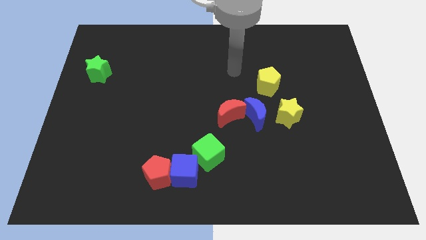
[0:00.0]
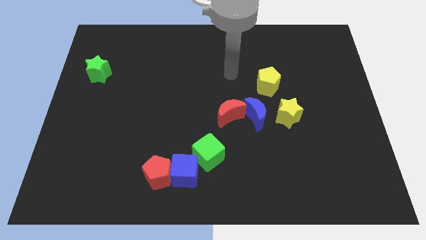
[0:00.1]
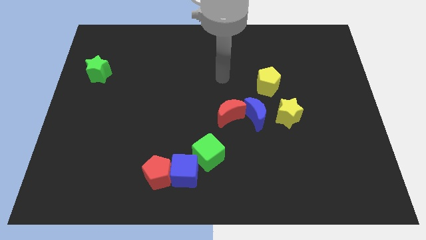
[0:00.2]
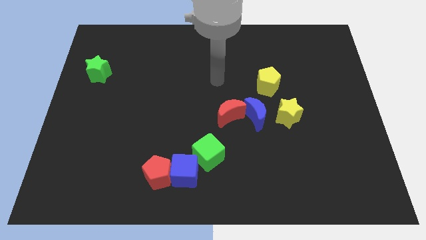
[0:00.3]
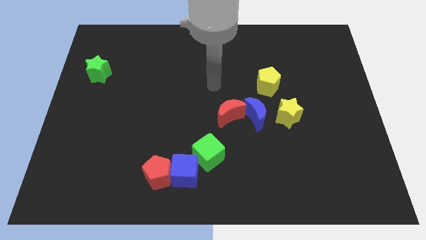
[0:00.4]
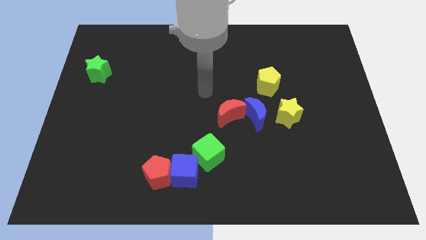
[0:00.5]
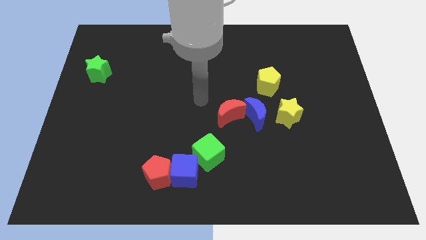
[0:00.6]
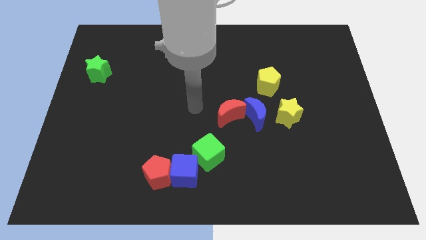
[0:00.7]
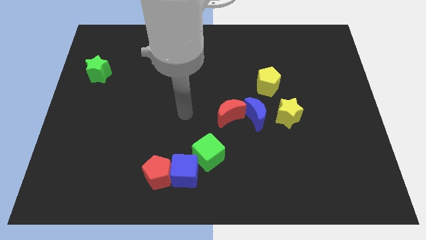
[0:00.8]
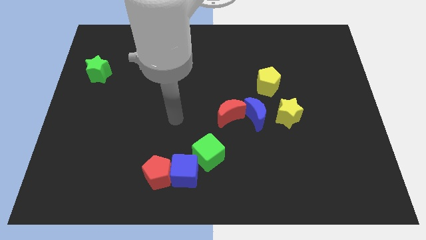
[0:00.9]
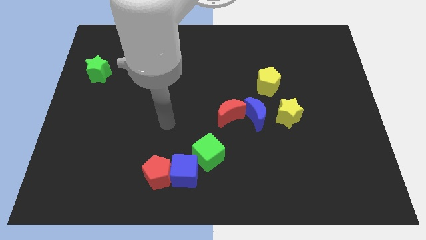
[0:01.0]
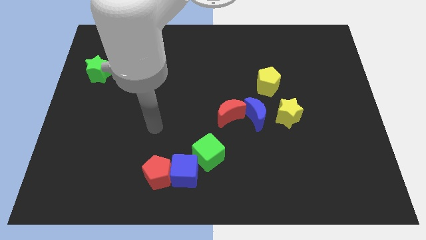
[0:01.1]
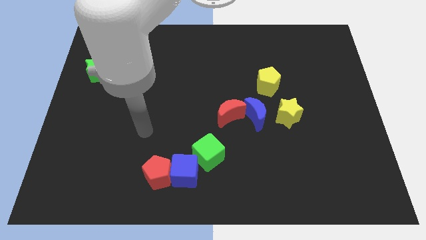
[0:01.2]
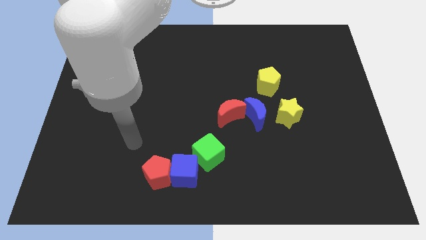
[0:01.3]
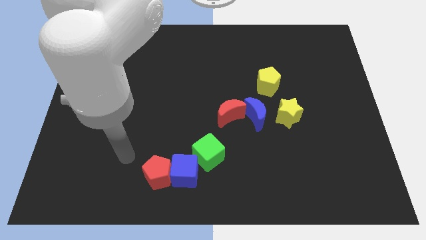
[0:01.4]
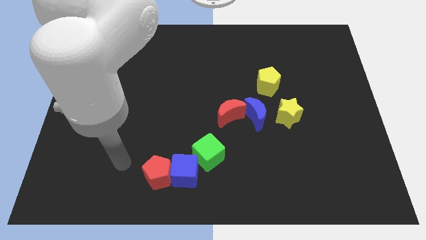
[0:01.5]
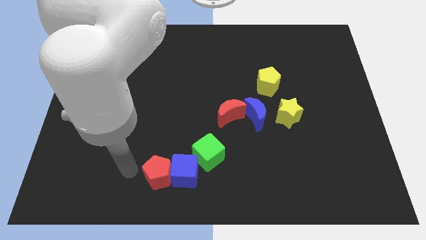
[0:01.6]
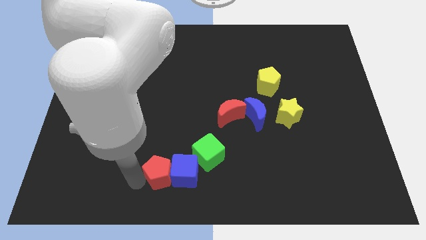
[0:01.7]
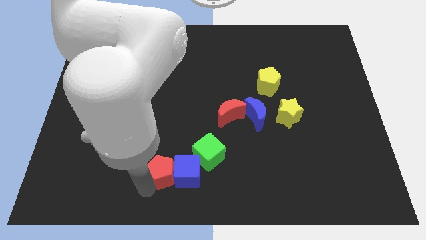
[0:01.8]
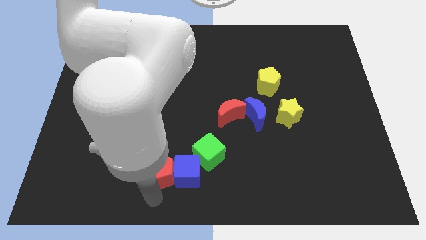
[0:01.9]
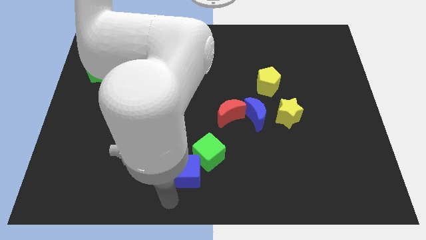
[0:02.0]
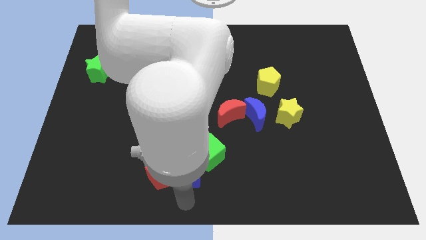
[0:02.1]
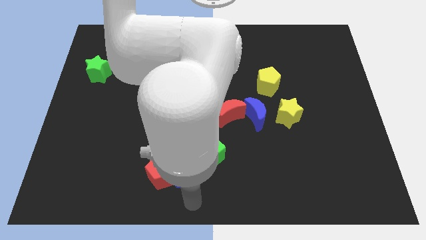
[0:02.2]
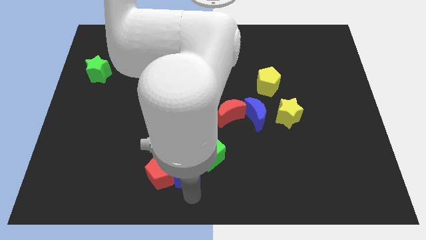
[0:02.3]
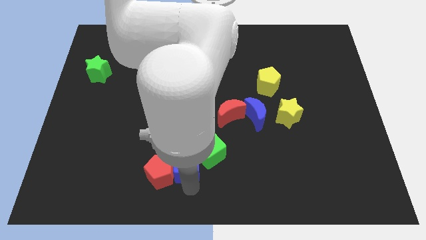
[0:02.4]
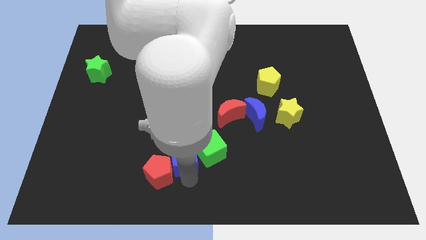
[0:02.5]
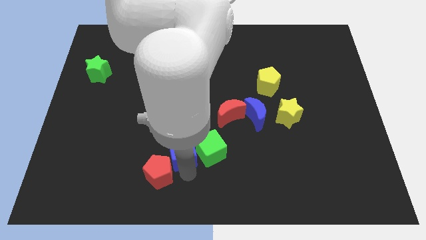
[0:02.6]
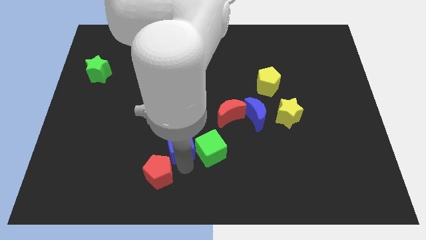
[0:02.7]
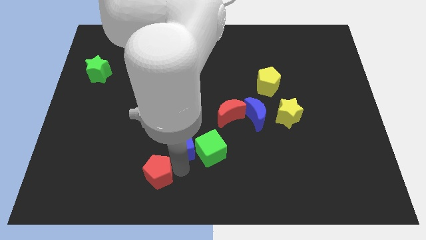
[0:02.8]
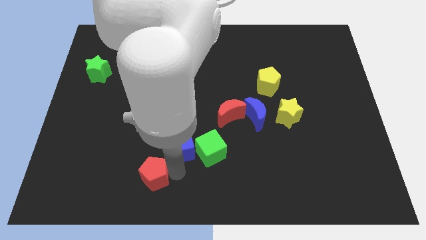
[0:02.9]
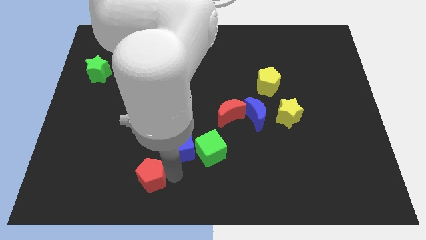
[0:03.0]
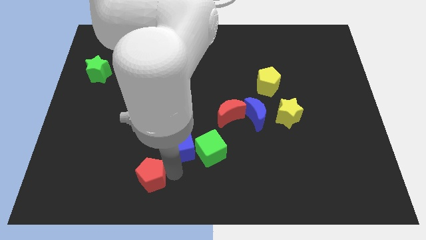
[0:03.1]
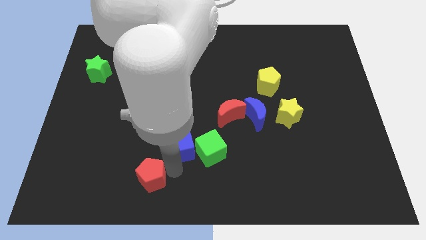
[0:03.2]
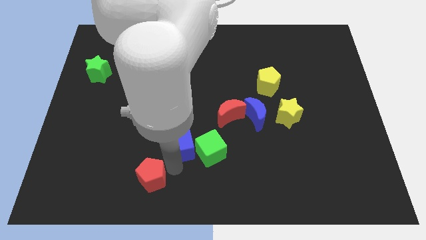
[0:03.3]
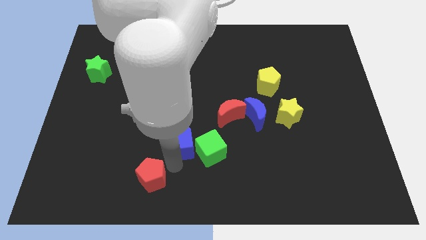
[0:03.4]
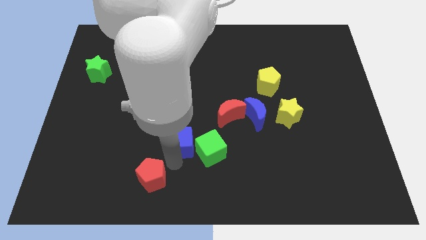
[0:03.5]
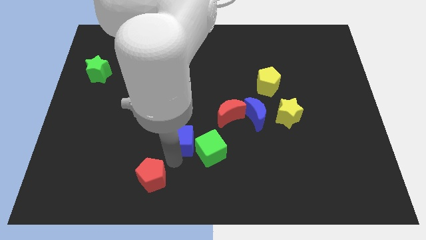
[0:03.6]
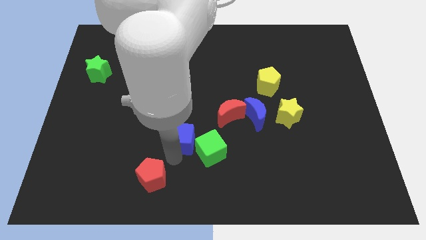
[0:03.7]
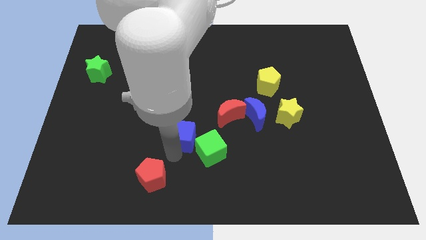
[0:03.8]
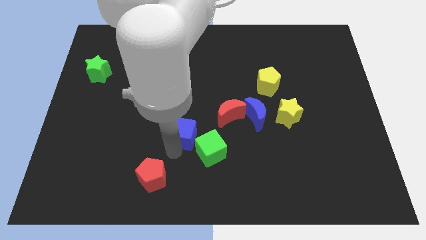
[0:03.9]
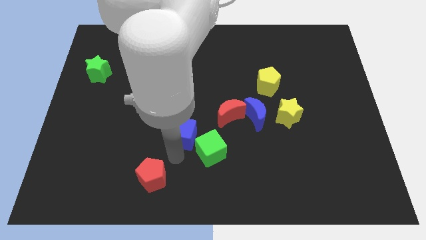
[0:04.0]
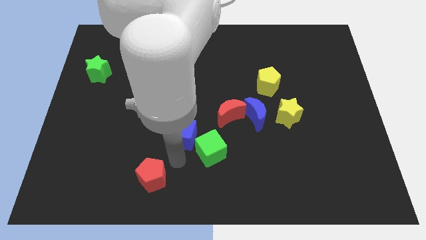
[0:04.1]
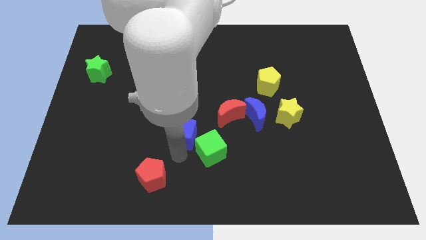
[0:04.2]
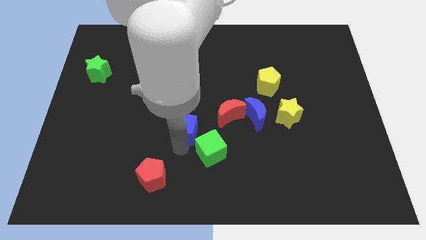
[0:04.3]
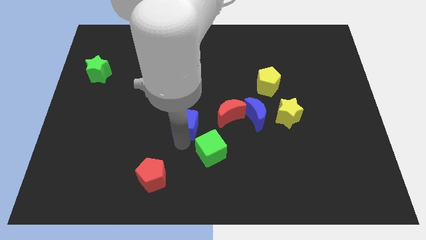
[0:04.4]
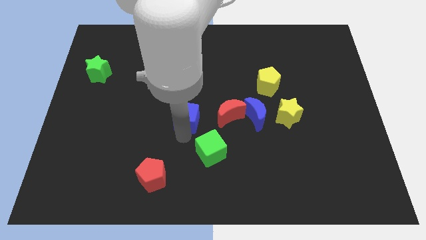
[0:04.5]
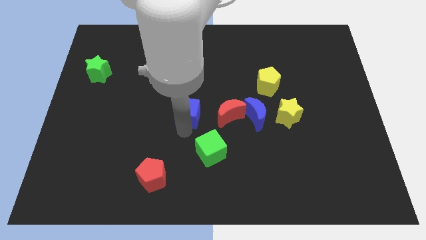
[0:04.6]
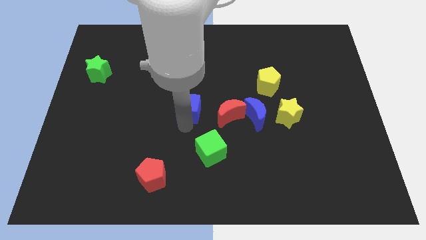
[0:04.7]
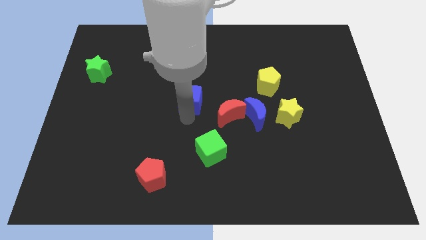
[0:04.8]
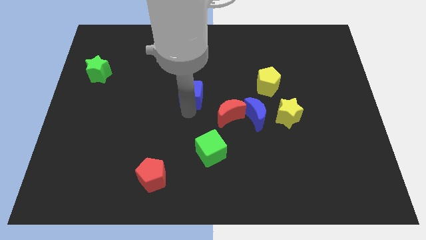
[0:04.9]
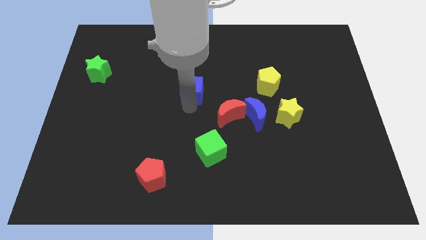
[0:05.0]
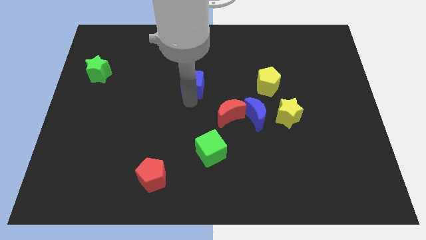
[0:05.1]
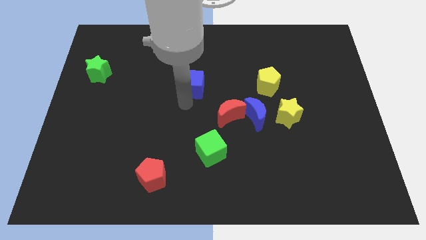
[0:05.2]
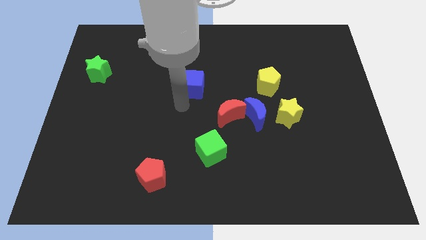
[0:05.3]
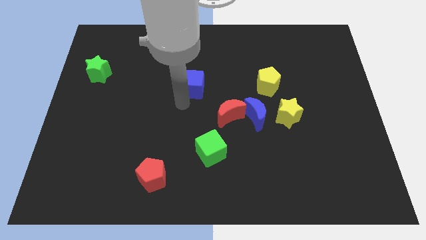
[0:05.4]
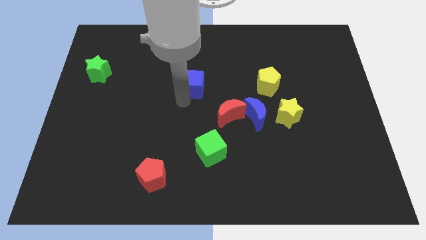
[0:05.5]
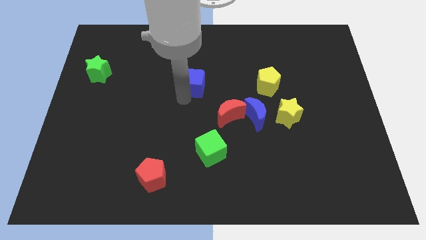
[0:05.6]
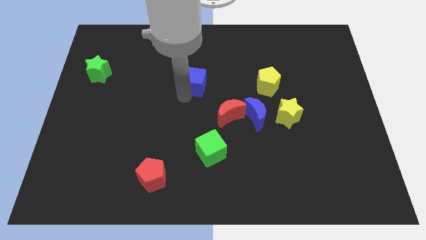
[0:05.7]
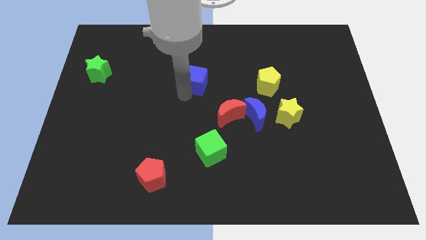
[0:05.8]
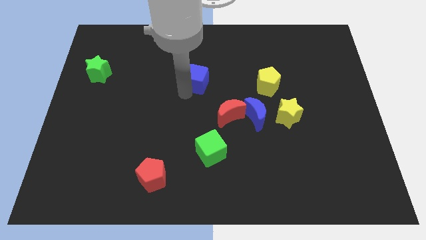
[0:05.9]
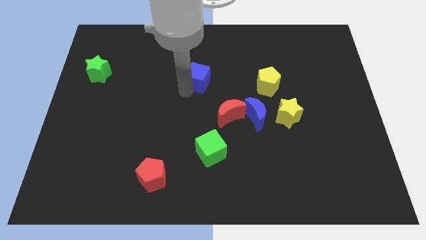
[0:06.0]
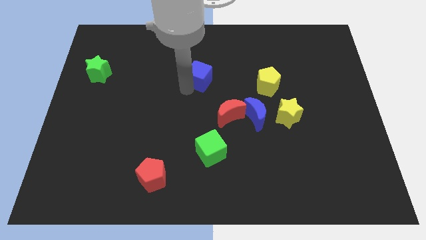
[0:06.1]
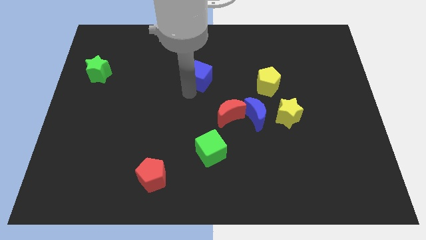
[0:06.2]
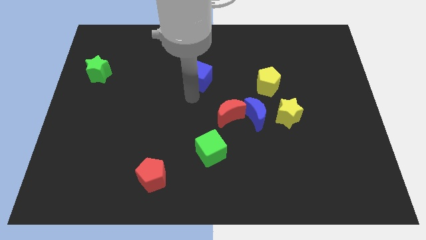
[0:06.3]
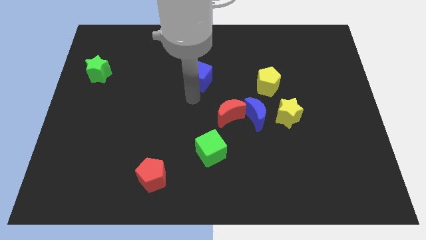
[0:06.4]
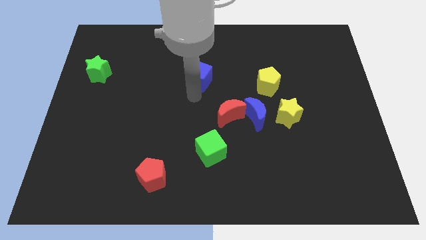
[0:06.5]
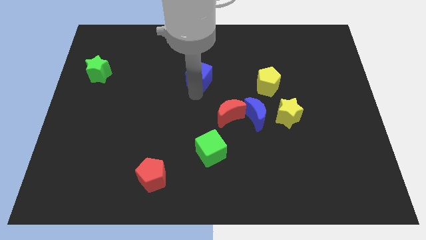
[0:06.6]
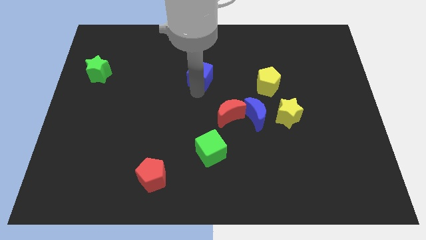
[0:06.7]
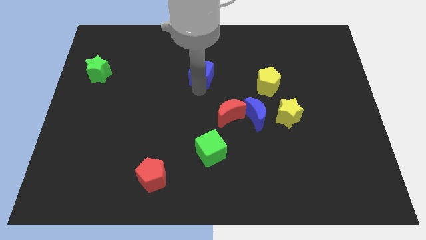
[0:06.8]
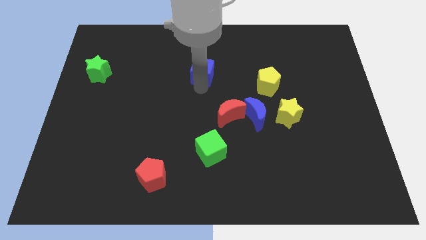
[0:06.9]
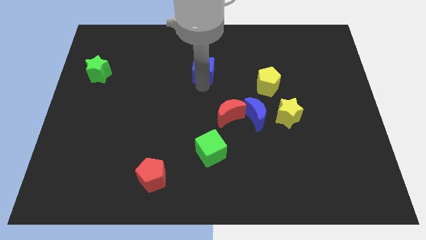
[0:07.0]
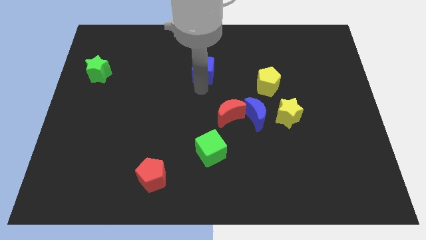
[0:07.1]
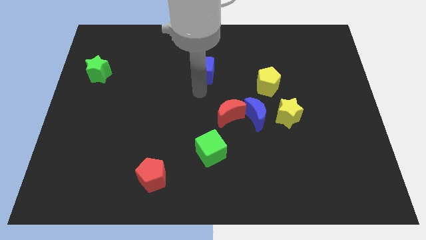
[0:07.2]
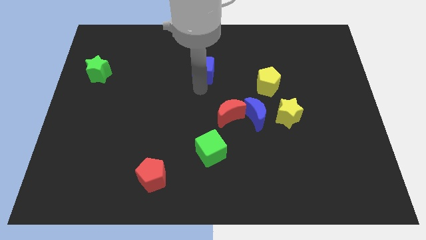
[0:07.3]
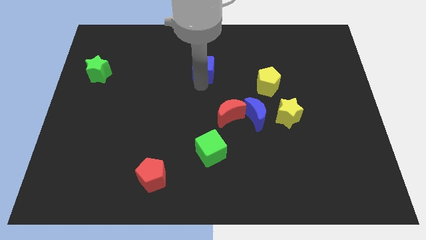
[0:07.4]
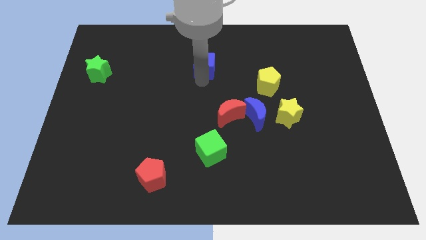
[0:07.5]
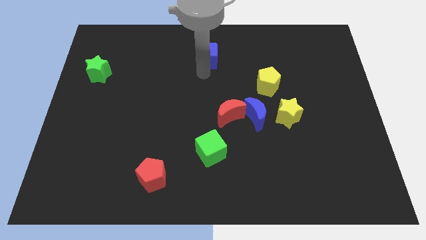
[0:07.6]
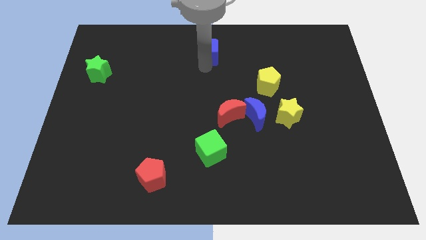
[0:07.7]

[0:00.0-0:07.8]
put the blue cube to the top side
